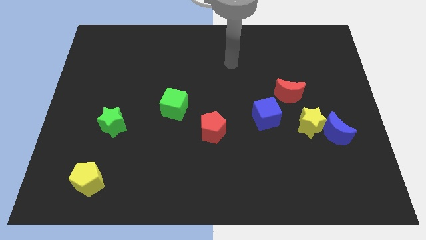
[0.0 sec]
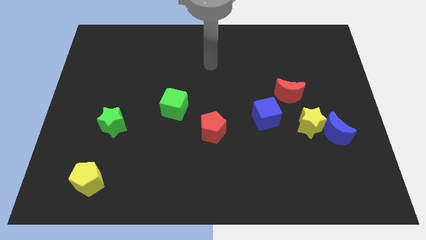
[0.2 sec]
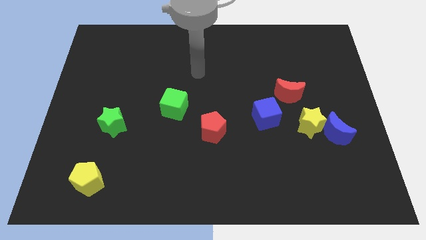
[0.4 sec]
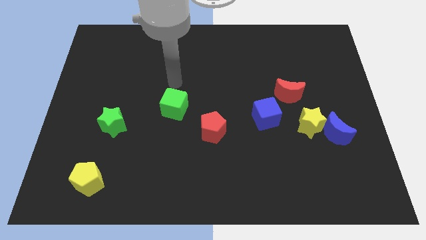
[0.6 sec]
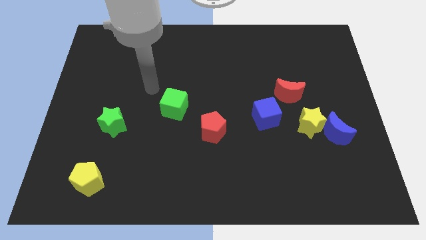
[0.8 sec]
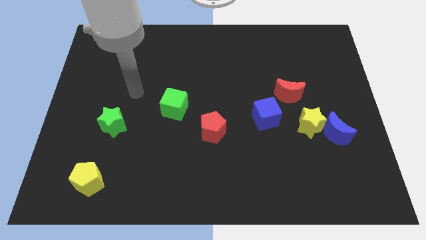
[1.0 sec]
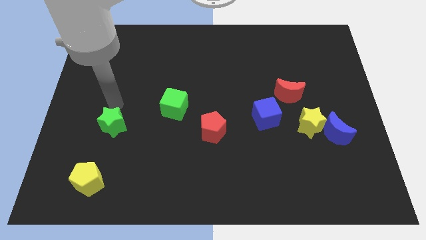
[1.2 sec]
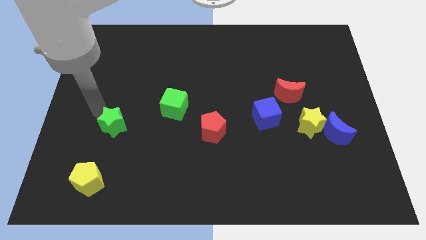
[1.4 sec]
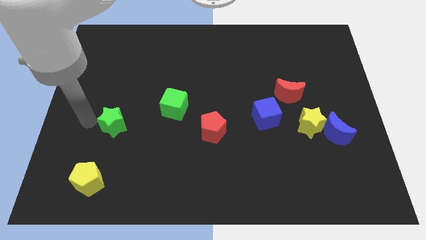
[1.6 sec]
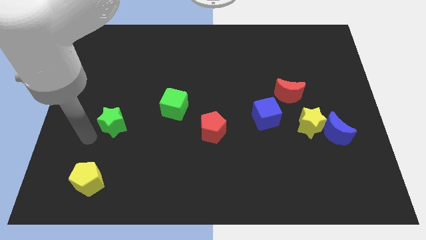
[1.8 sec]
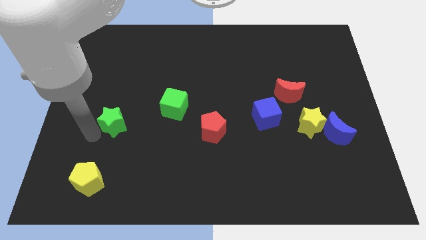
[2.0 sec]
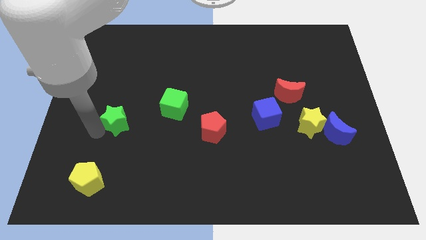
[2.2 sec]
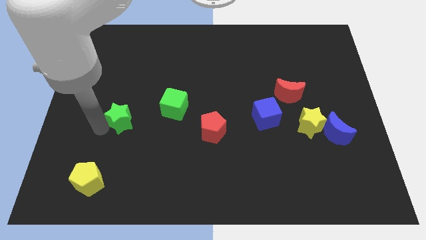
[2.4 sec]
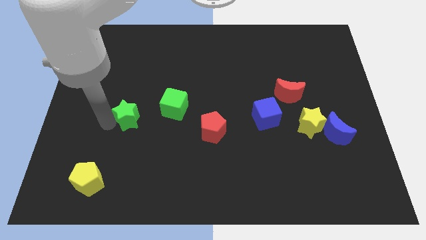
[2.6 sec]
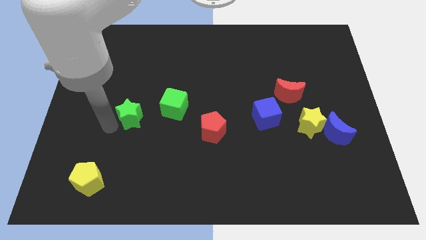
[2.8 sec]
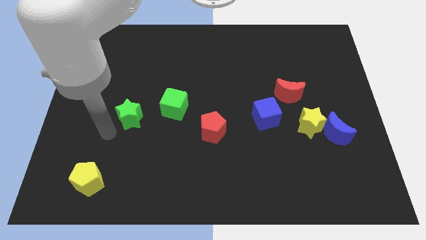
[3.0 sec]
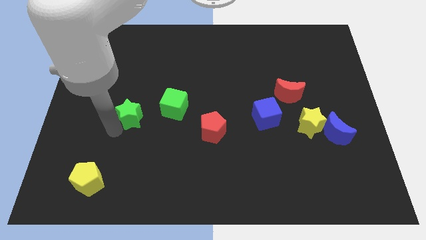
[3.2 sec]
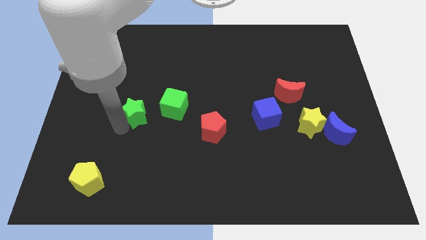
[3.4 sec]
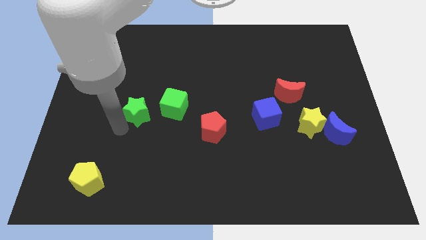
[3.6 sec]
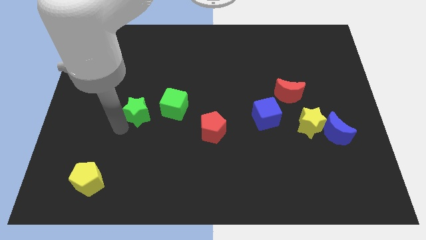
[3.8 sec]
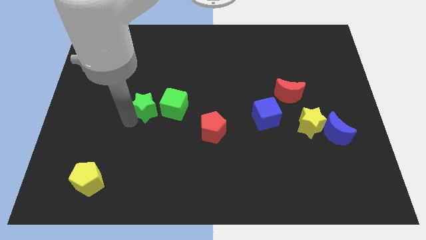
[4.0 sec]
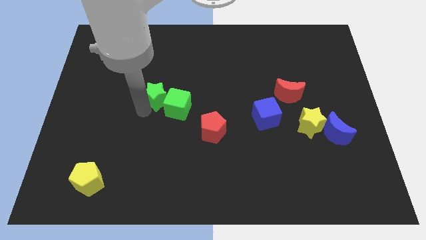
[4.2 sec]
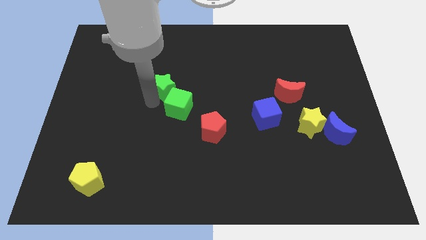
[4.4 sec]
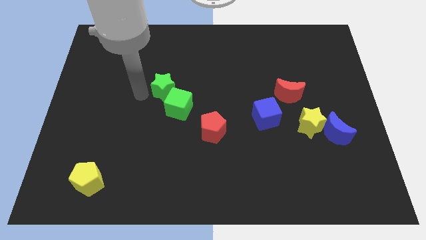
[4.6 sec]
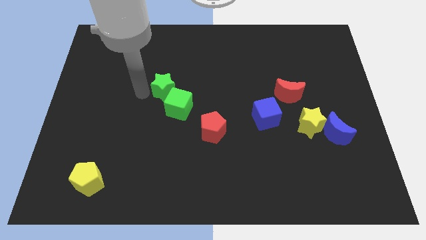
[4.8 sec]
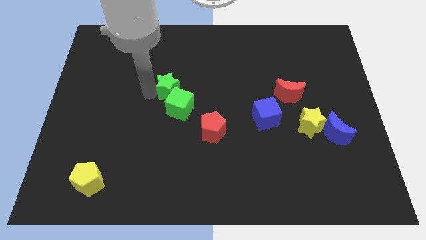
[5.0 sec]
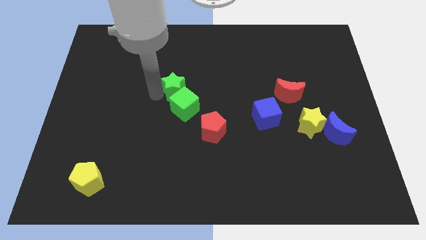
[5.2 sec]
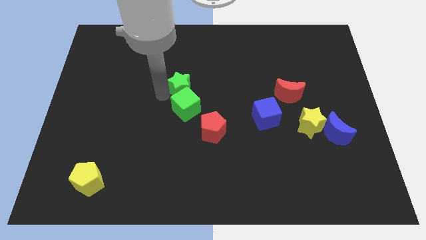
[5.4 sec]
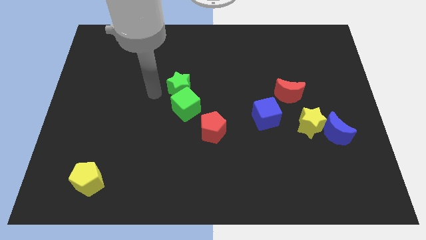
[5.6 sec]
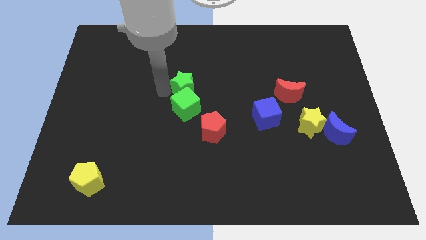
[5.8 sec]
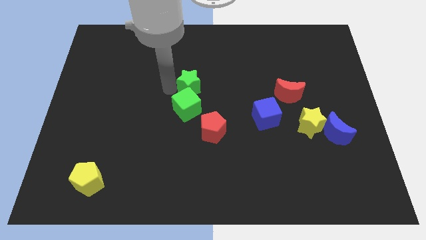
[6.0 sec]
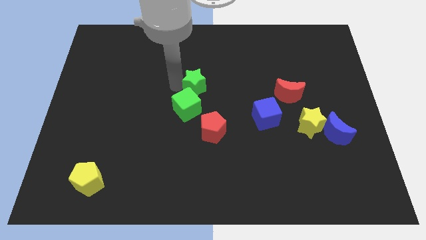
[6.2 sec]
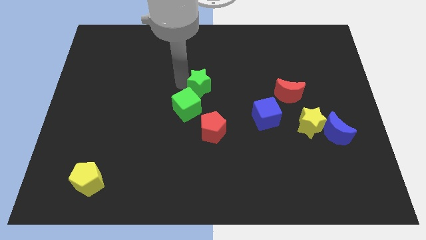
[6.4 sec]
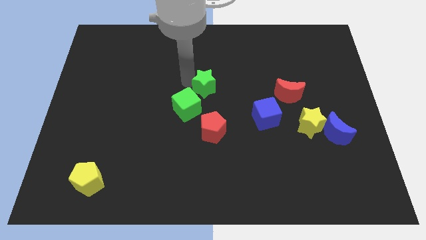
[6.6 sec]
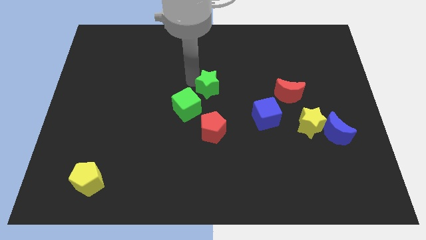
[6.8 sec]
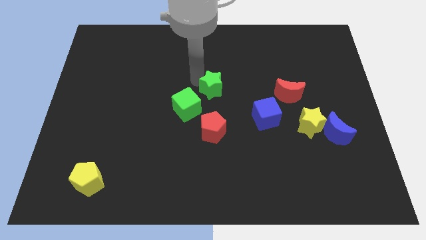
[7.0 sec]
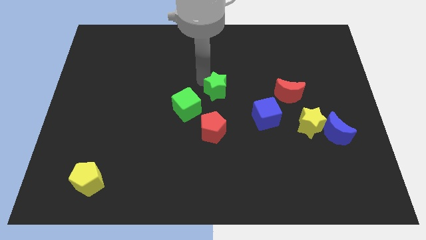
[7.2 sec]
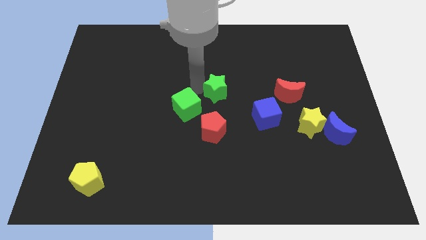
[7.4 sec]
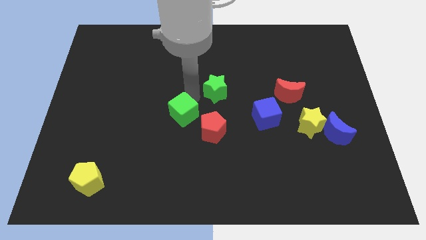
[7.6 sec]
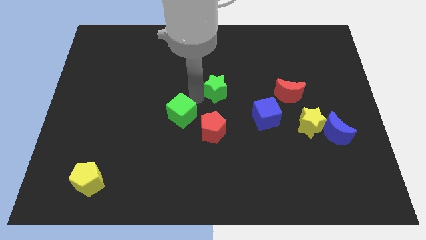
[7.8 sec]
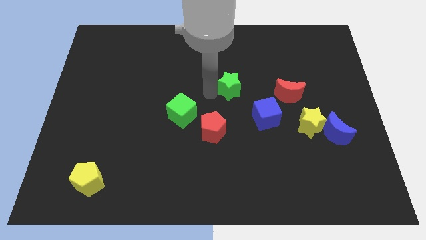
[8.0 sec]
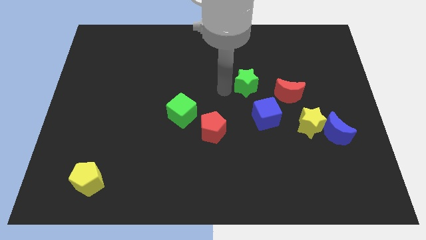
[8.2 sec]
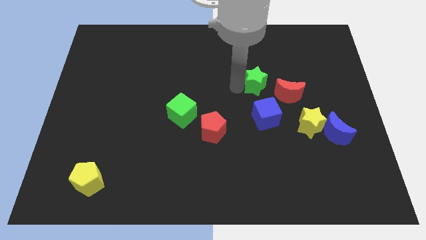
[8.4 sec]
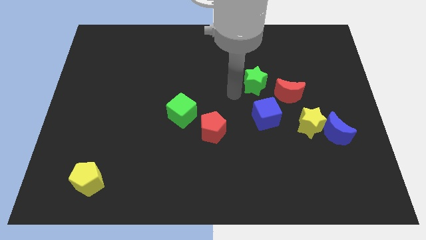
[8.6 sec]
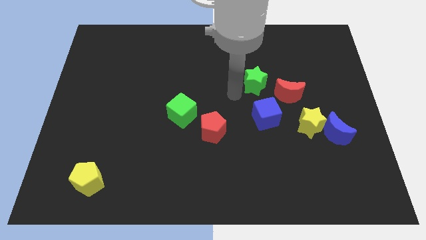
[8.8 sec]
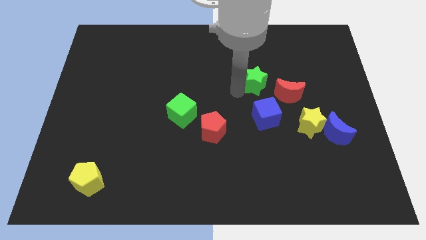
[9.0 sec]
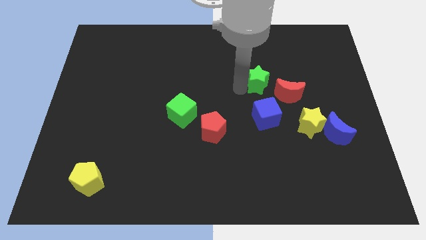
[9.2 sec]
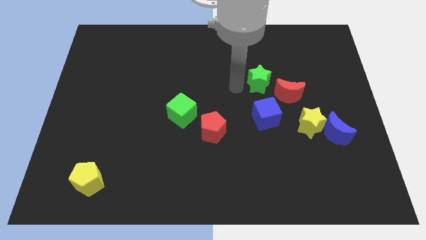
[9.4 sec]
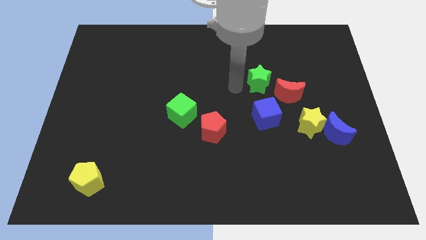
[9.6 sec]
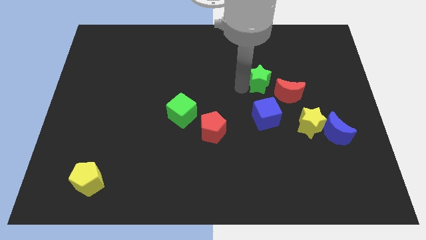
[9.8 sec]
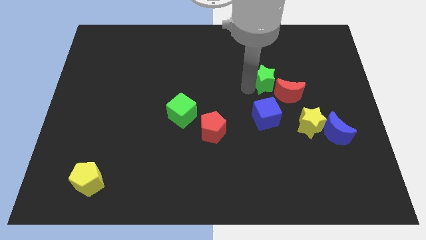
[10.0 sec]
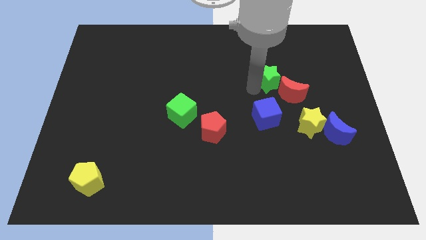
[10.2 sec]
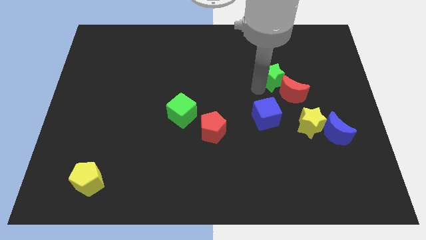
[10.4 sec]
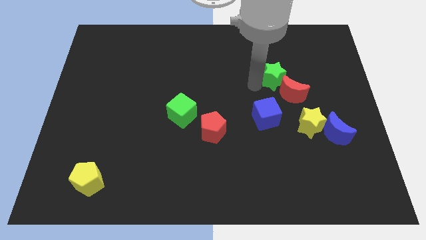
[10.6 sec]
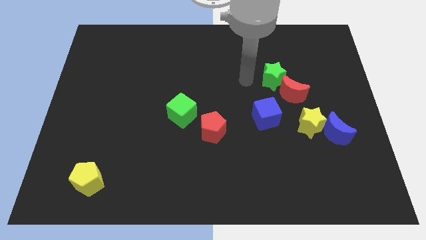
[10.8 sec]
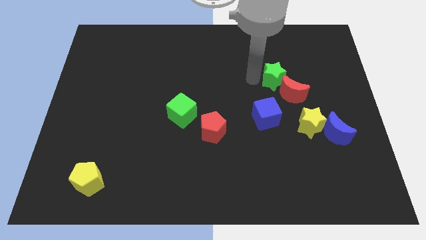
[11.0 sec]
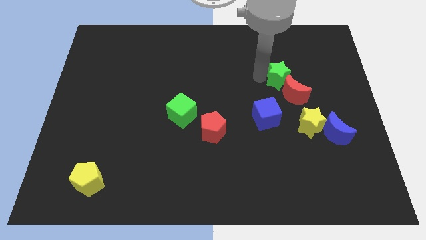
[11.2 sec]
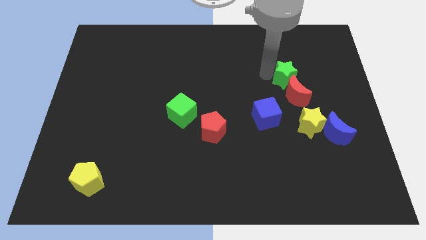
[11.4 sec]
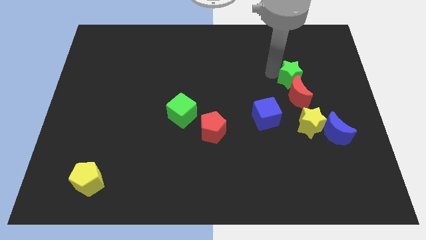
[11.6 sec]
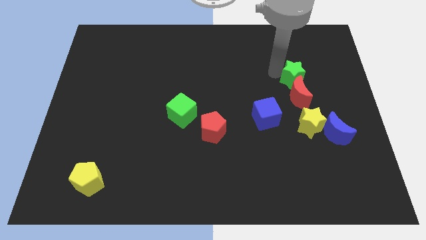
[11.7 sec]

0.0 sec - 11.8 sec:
put the green star to the top right of the red moon

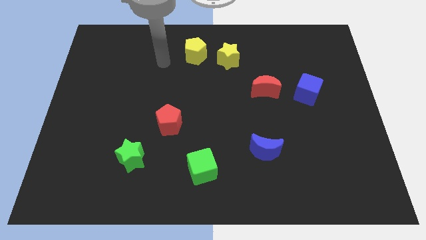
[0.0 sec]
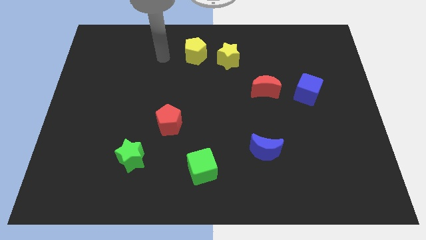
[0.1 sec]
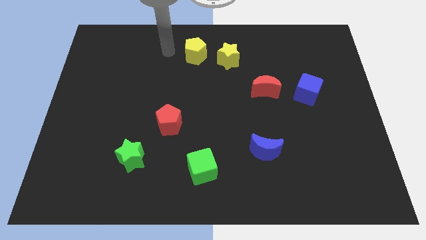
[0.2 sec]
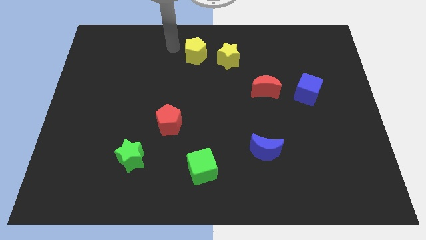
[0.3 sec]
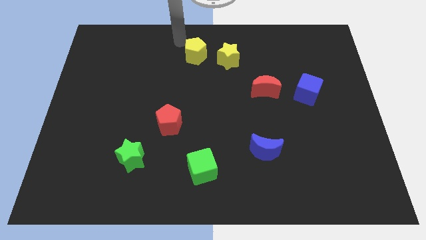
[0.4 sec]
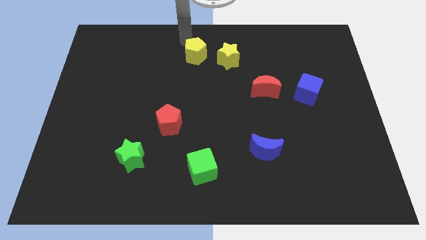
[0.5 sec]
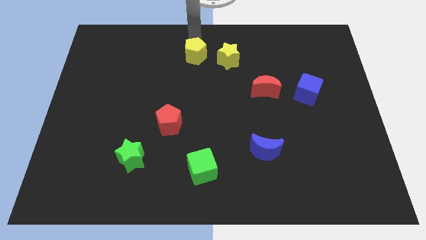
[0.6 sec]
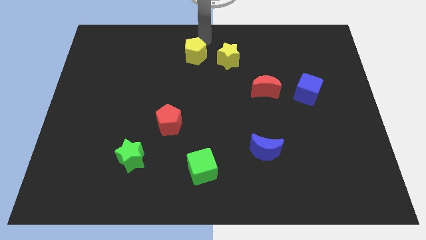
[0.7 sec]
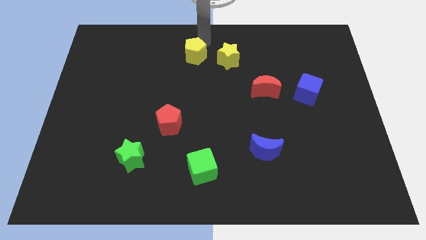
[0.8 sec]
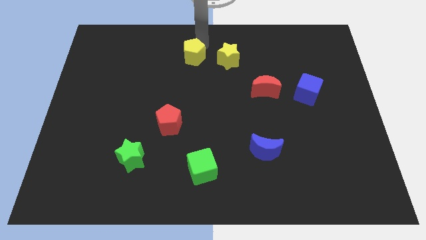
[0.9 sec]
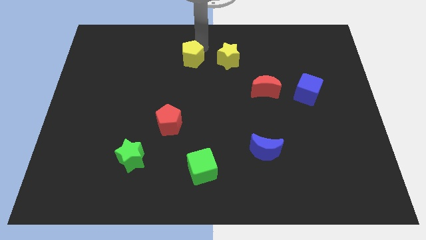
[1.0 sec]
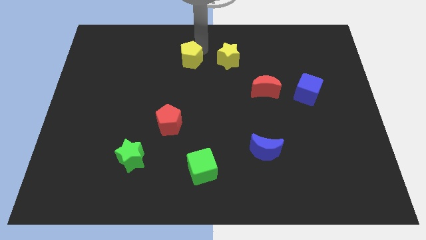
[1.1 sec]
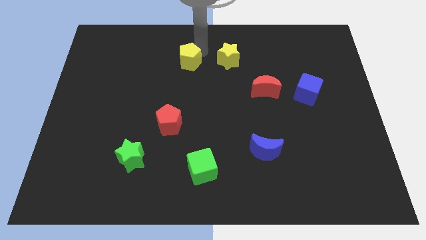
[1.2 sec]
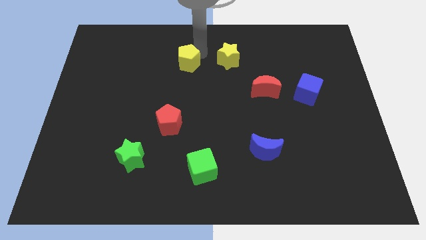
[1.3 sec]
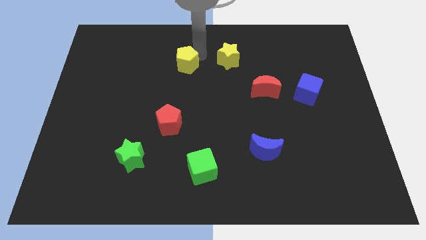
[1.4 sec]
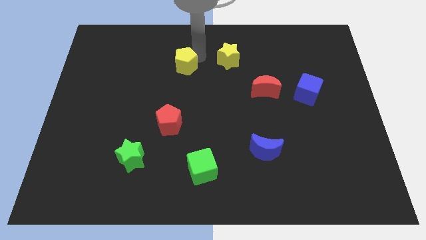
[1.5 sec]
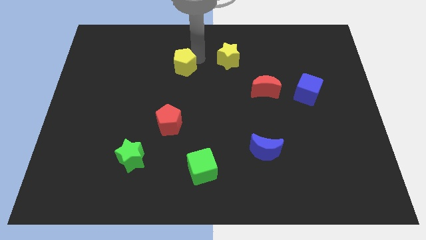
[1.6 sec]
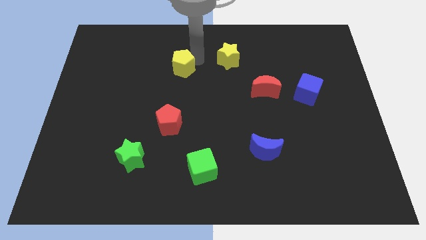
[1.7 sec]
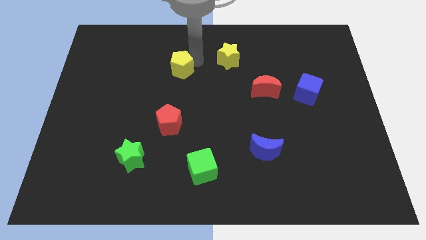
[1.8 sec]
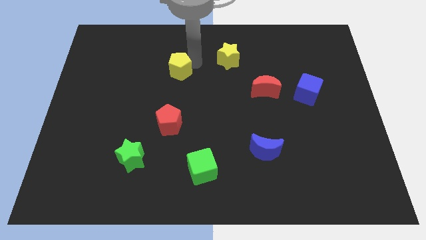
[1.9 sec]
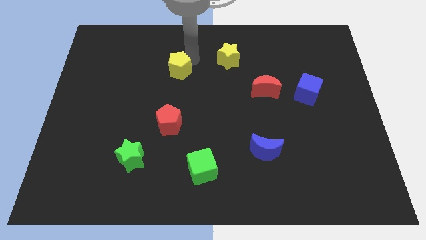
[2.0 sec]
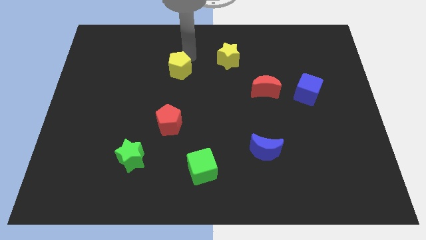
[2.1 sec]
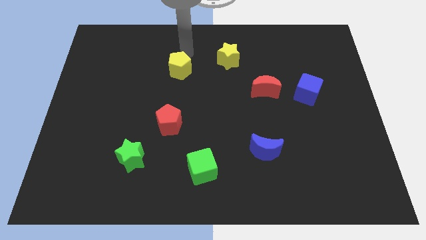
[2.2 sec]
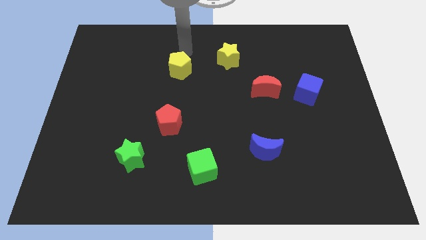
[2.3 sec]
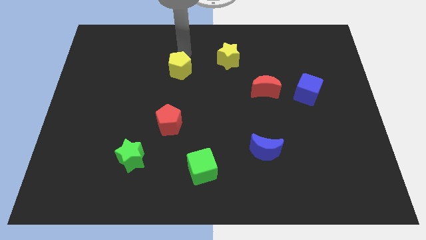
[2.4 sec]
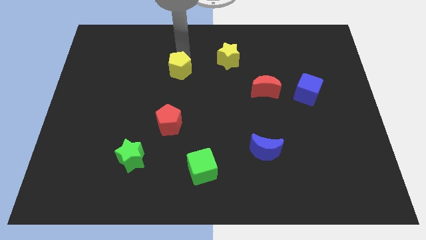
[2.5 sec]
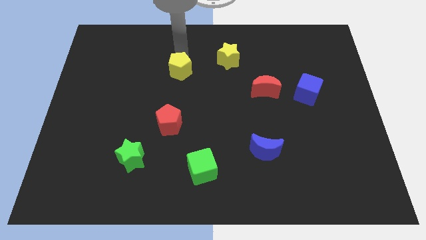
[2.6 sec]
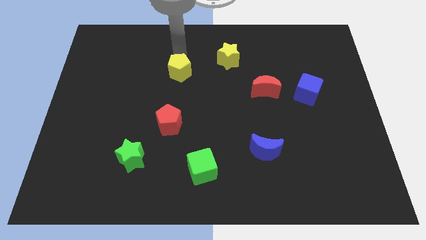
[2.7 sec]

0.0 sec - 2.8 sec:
slide the yellow pentagon above the red pentagon
